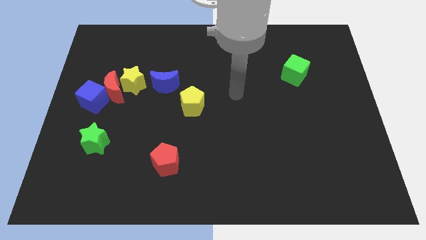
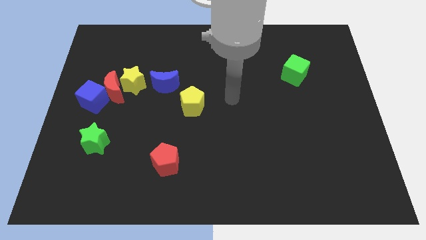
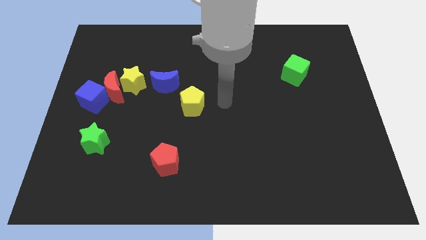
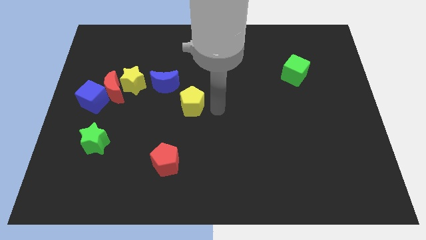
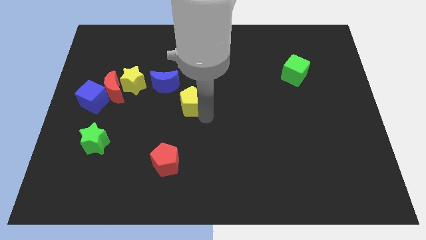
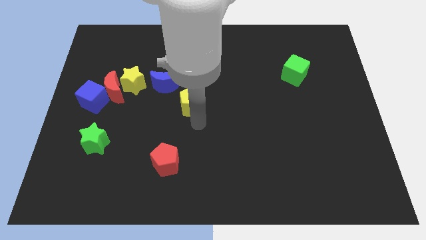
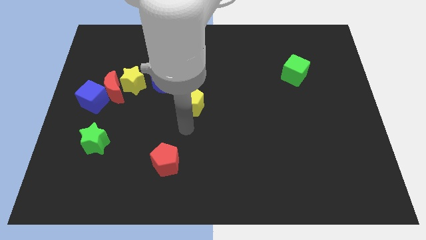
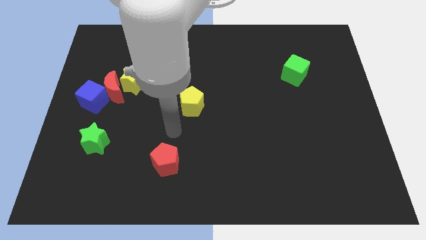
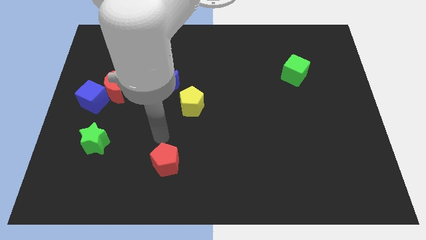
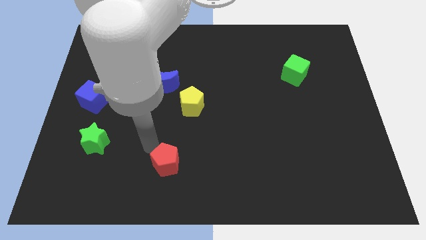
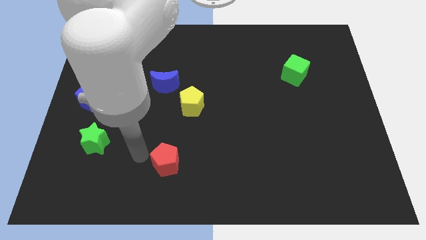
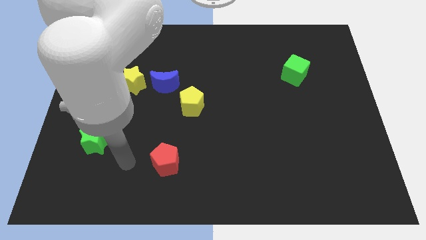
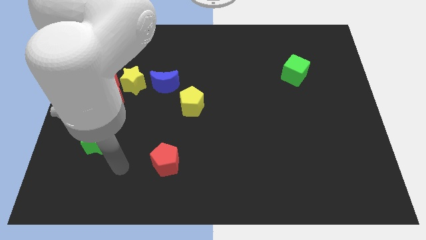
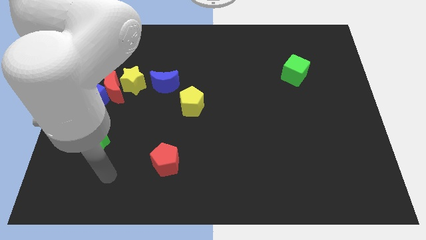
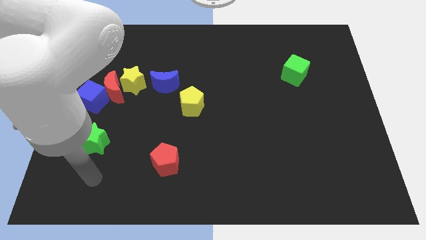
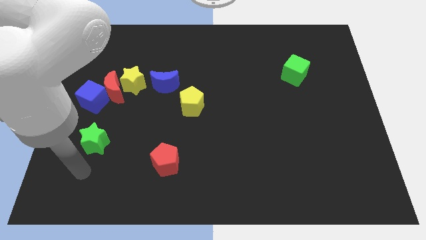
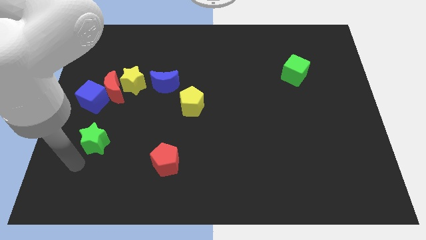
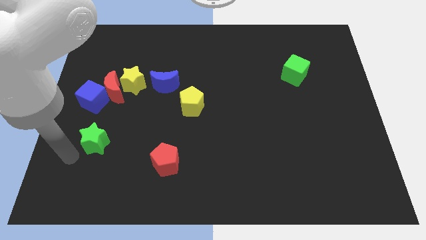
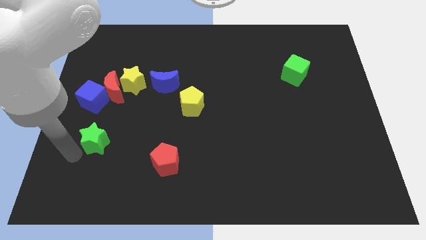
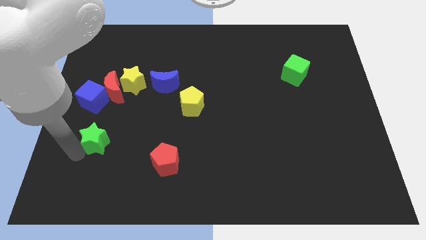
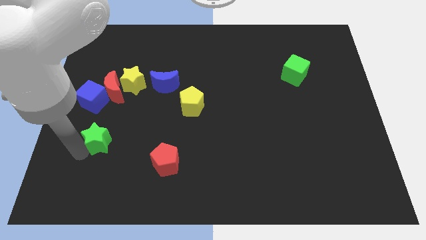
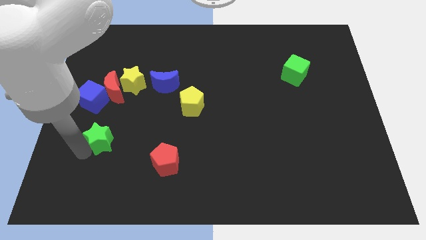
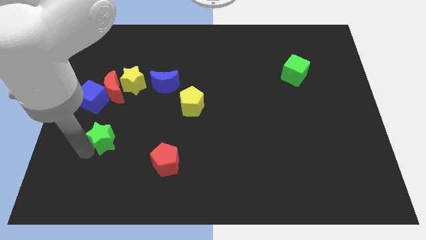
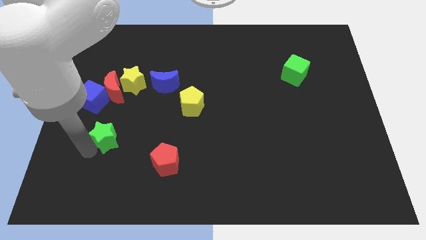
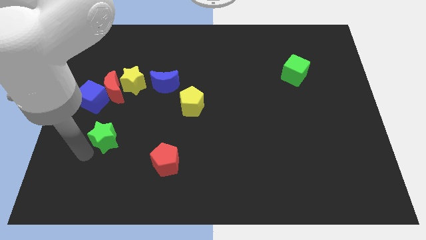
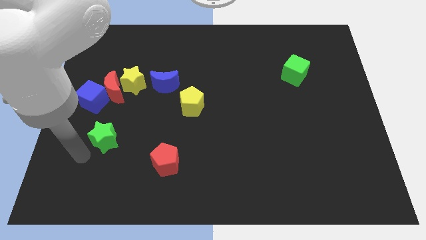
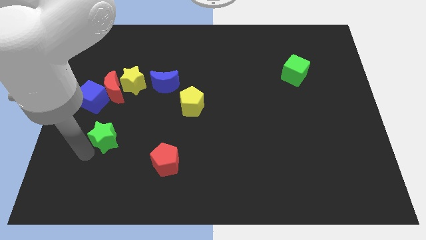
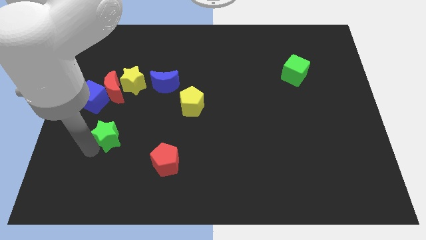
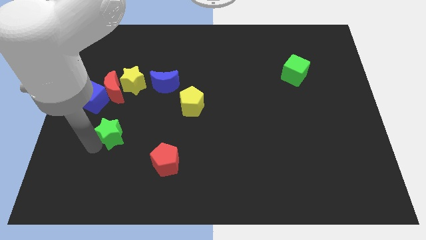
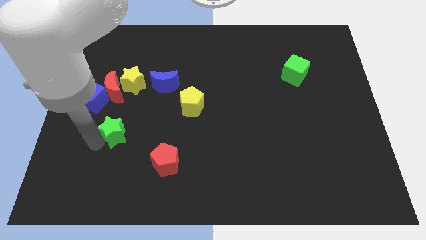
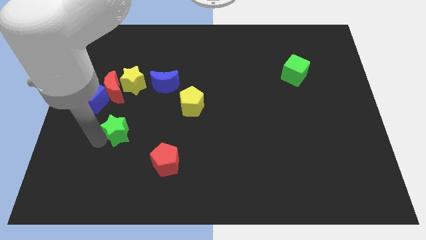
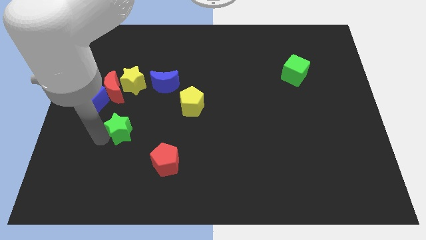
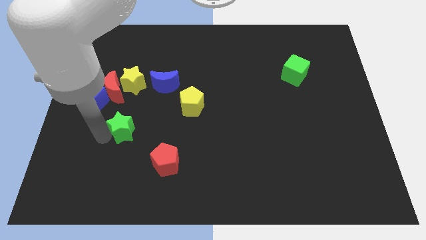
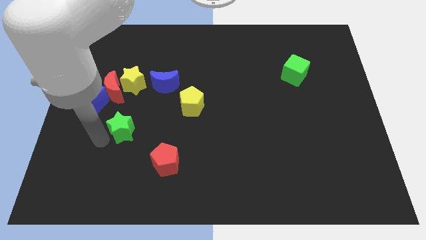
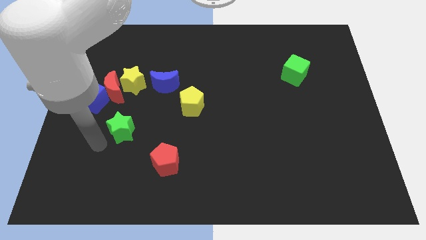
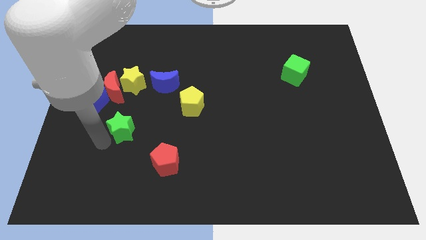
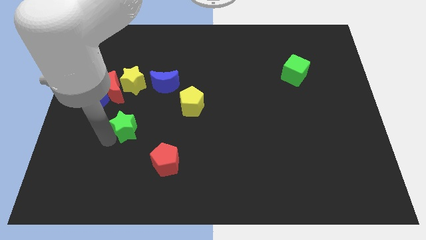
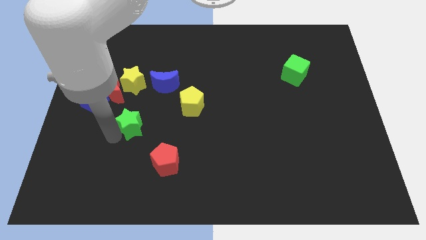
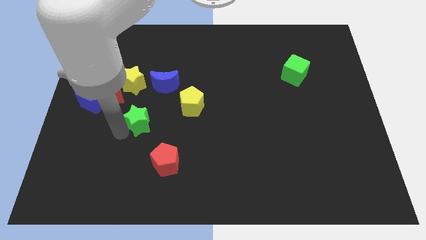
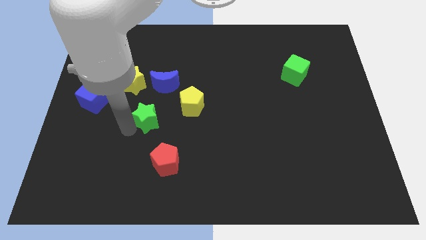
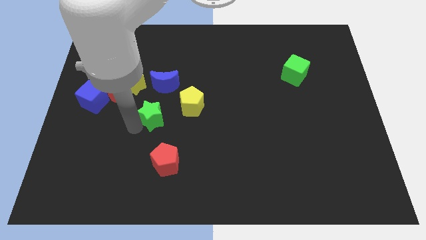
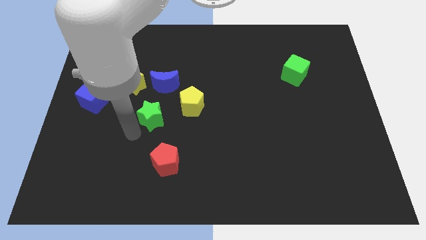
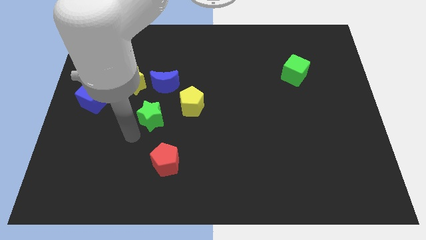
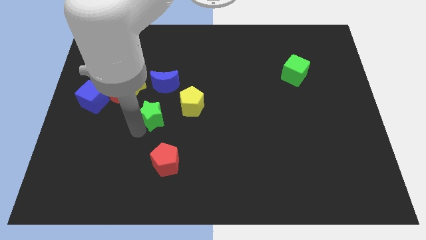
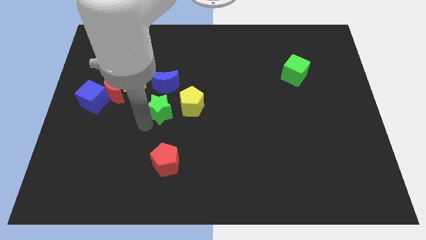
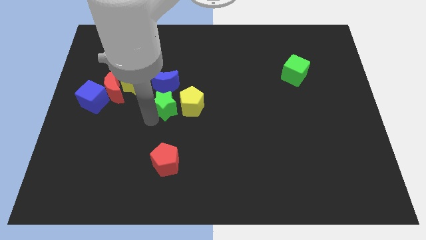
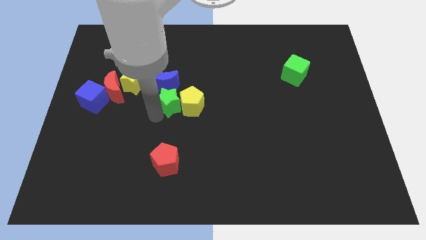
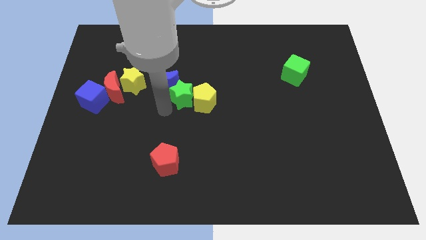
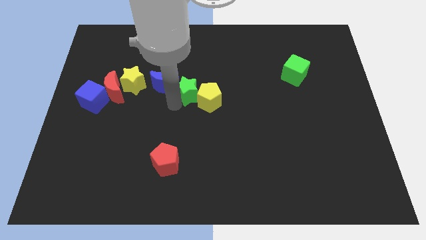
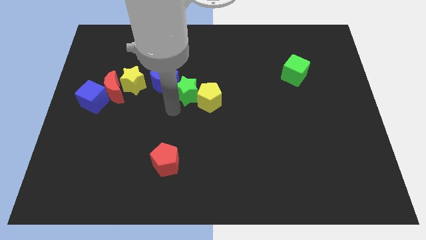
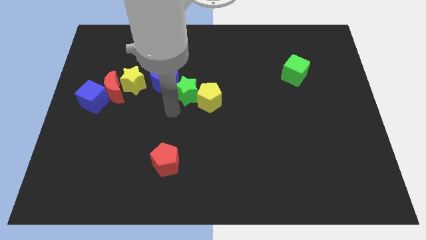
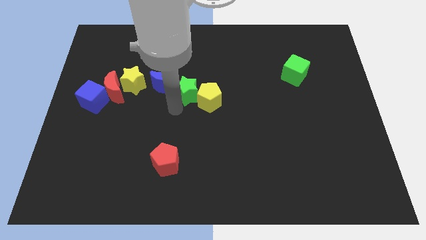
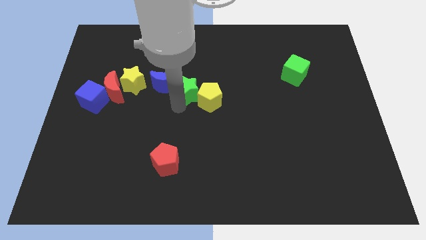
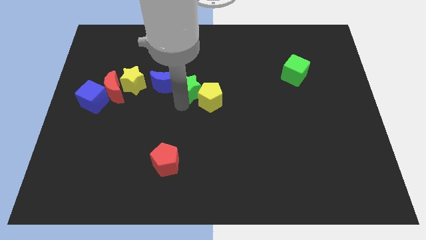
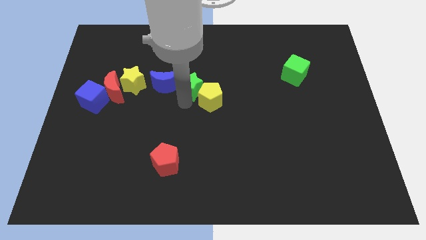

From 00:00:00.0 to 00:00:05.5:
slide the green star to the top side of the yellow pentagon

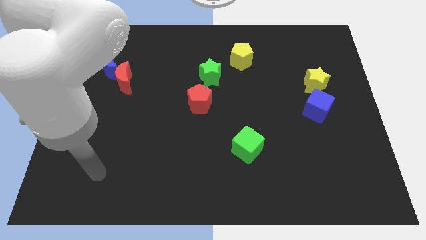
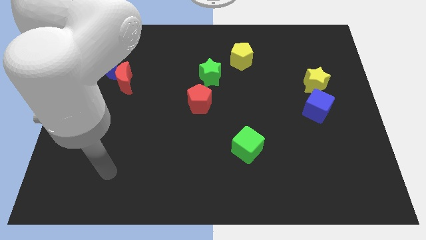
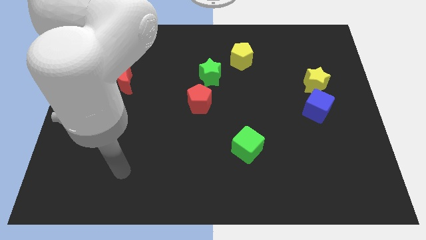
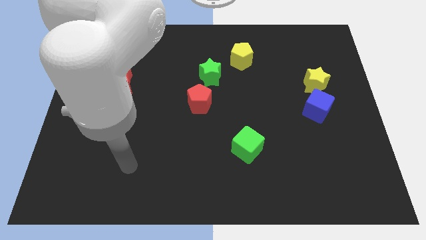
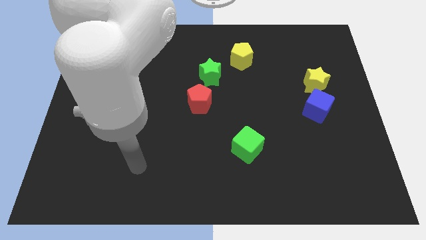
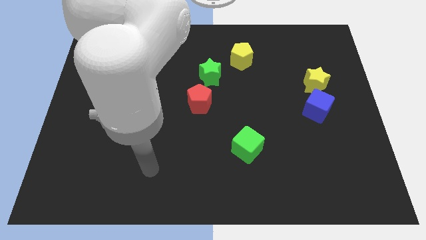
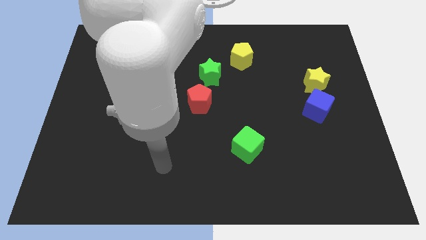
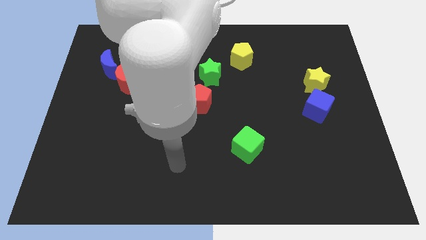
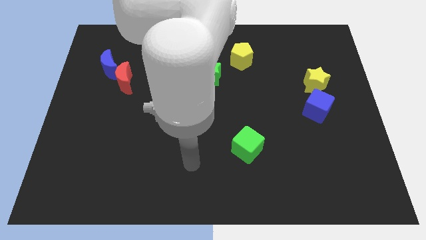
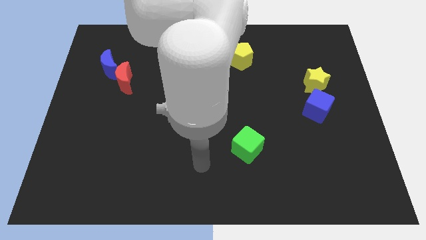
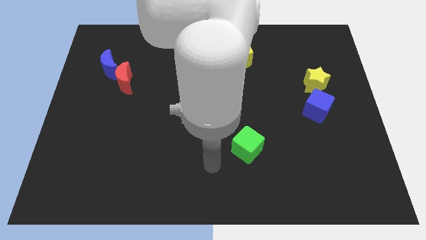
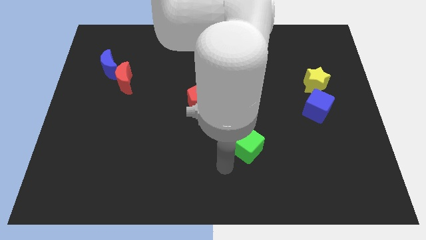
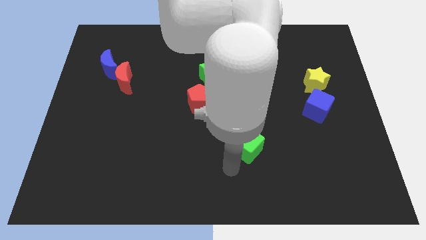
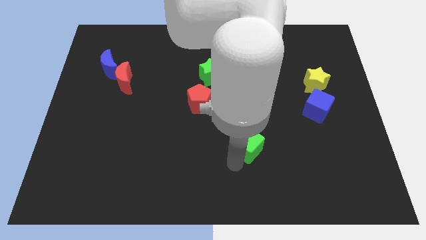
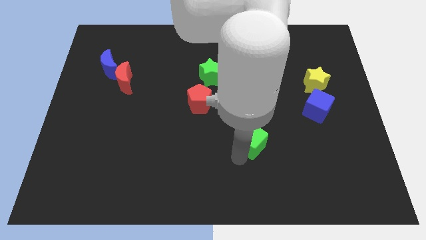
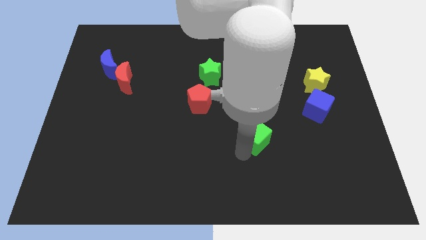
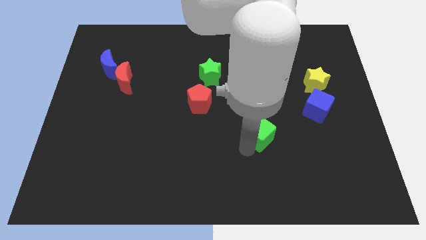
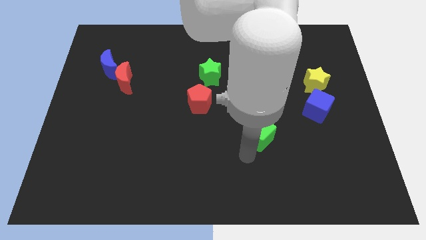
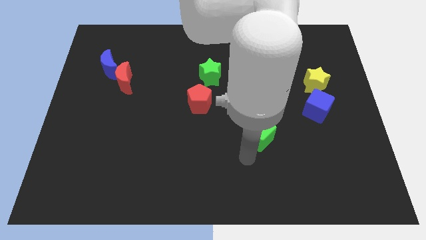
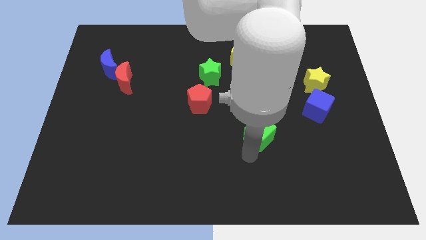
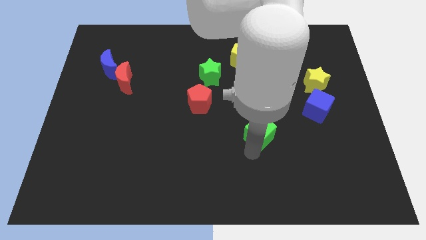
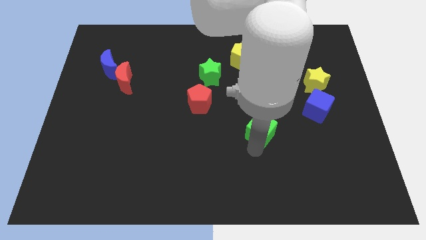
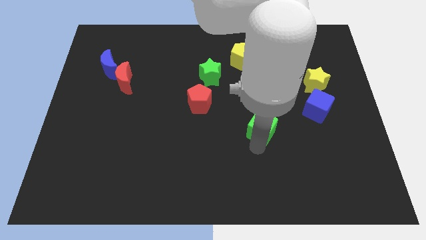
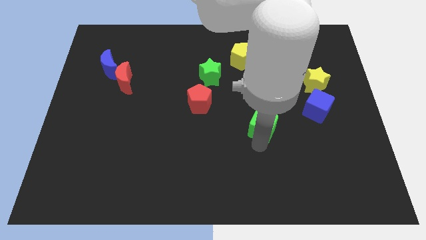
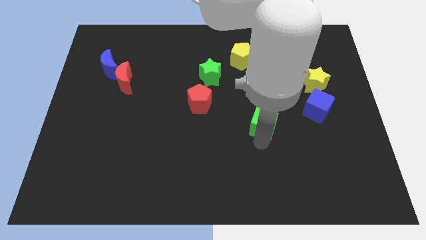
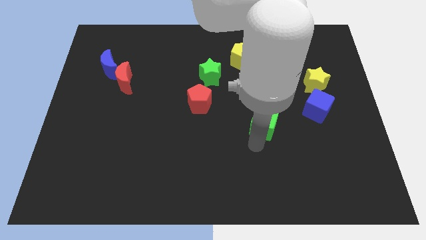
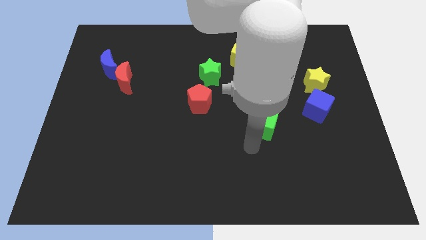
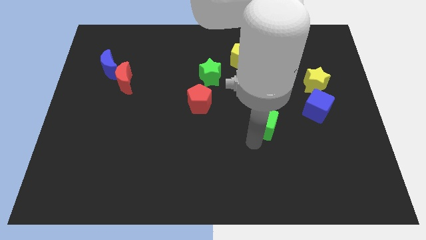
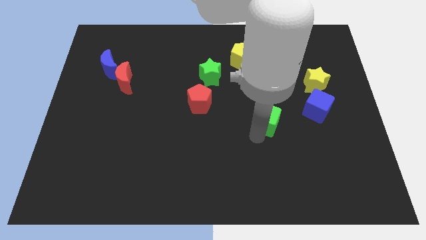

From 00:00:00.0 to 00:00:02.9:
move the green cube to the left side of the blue cube
